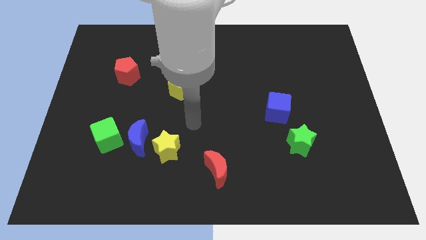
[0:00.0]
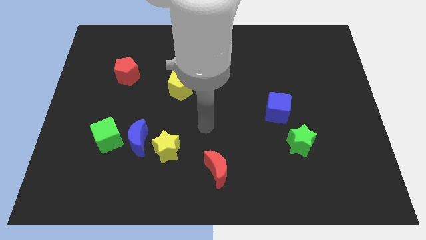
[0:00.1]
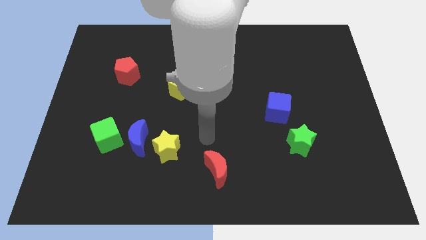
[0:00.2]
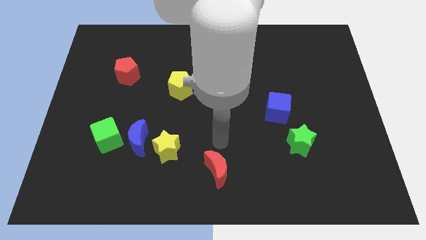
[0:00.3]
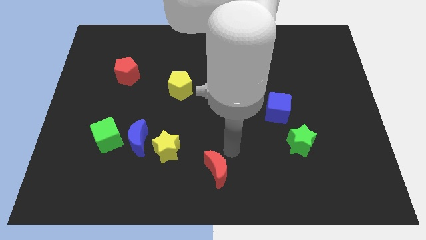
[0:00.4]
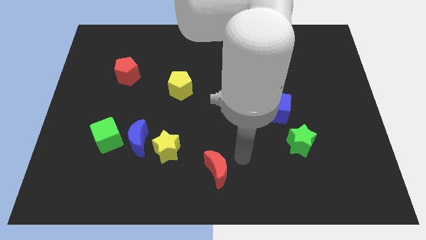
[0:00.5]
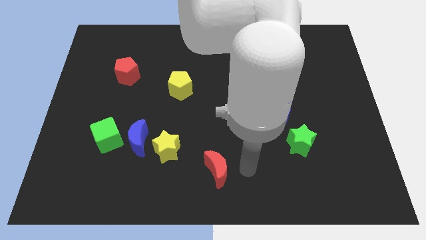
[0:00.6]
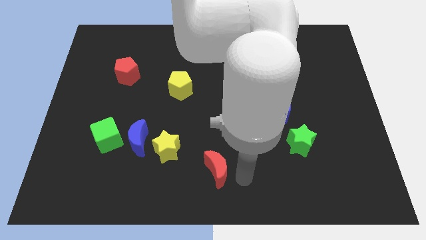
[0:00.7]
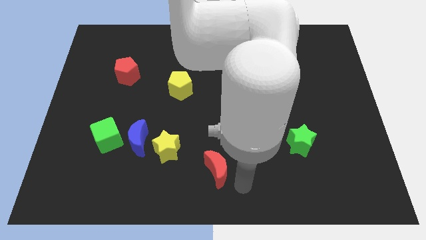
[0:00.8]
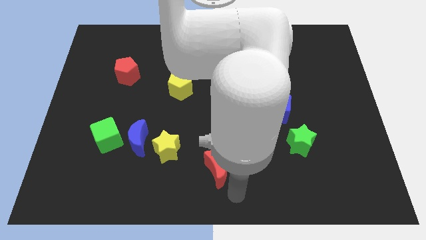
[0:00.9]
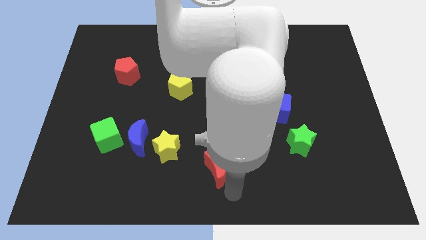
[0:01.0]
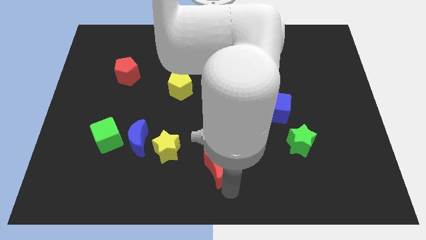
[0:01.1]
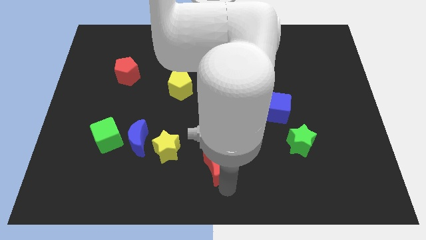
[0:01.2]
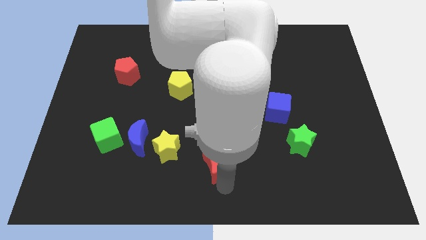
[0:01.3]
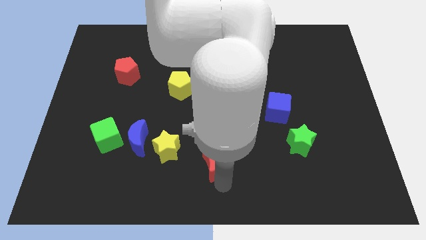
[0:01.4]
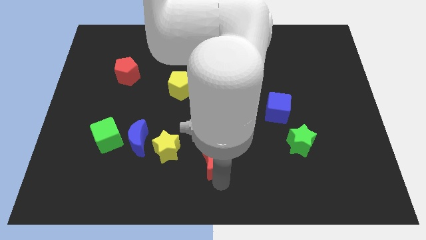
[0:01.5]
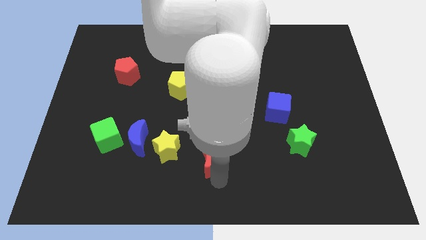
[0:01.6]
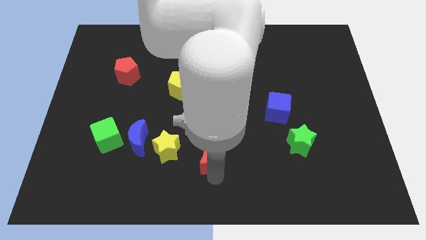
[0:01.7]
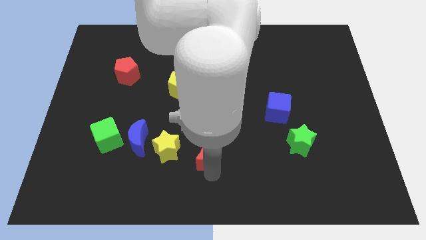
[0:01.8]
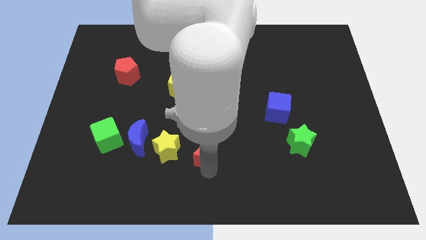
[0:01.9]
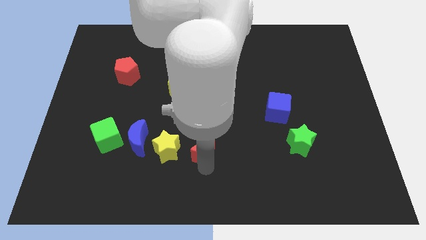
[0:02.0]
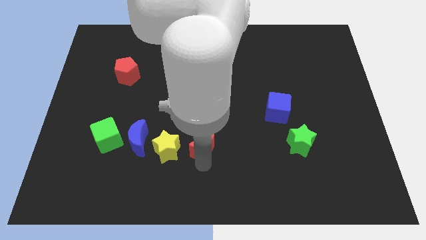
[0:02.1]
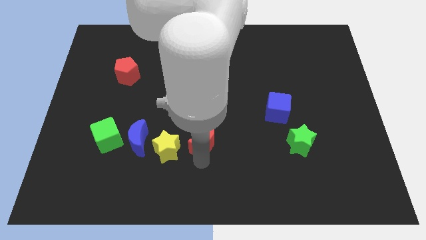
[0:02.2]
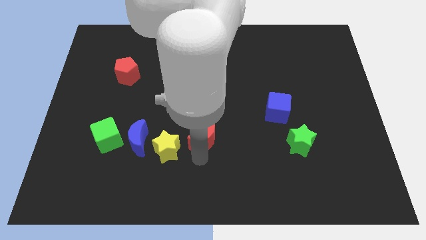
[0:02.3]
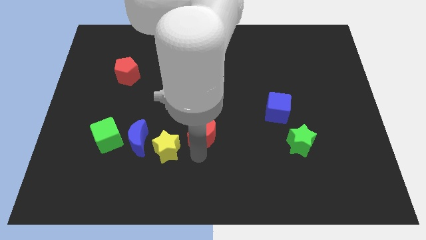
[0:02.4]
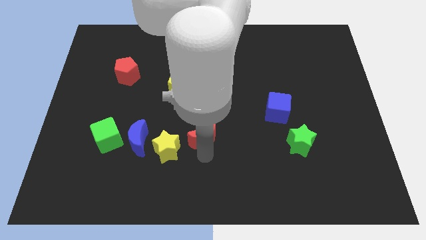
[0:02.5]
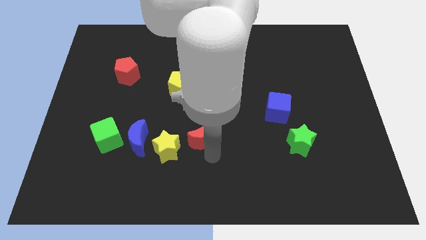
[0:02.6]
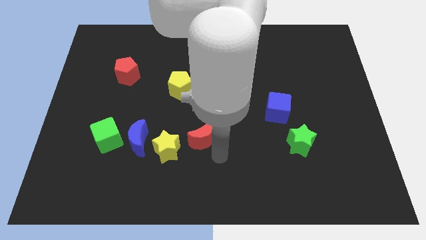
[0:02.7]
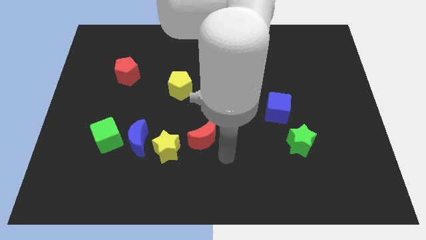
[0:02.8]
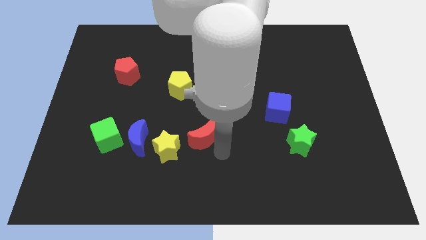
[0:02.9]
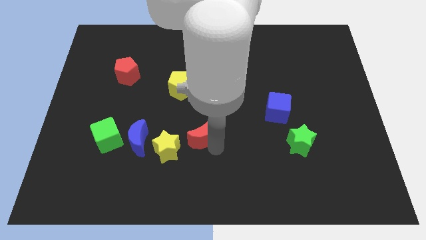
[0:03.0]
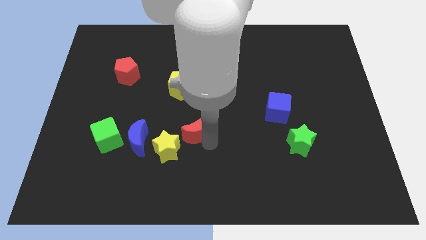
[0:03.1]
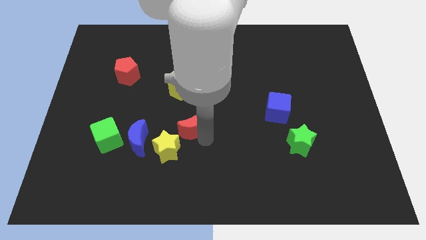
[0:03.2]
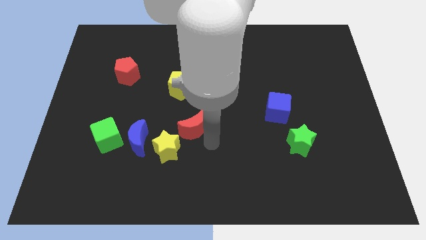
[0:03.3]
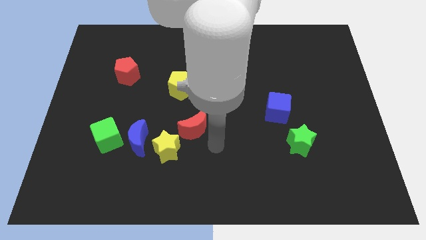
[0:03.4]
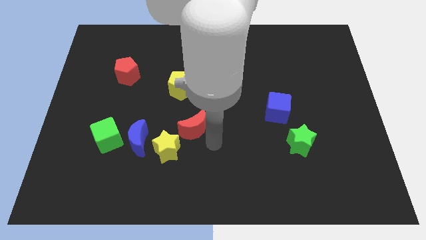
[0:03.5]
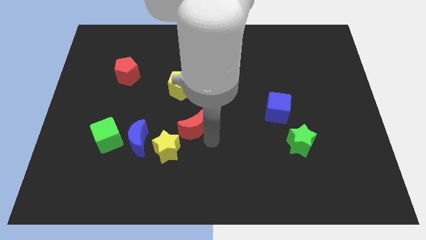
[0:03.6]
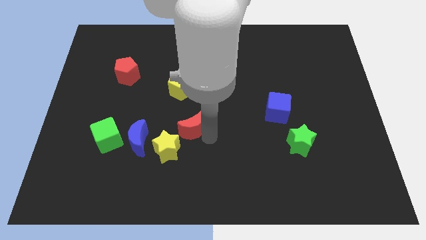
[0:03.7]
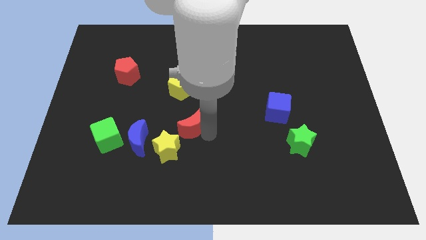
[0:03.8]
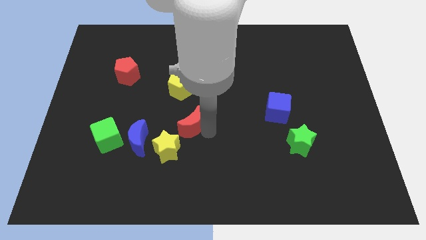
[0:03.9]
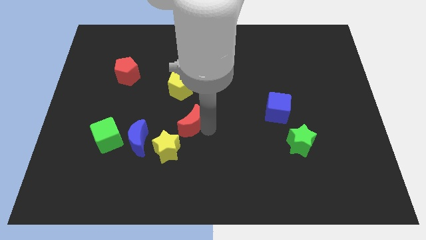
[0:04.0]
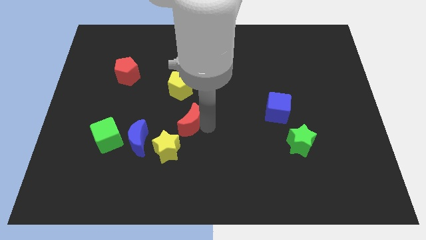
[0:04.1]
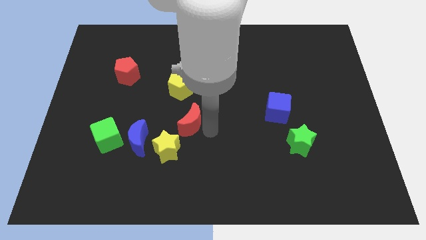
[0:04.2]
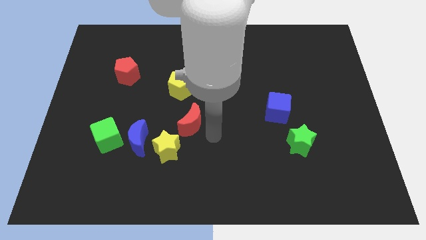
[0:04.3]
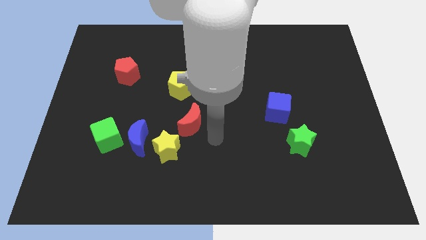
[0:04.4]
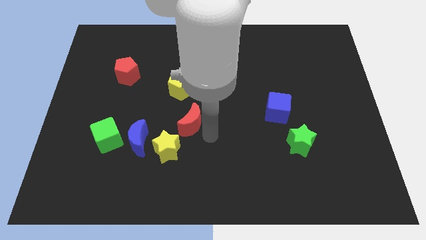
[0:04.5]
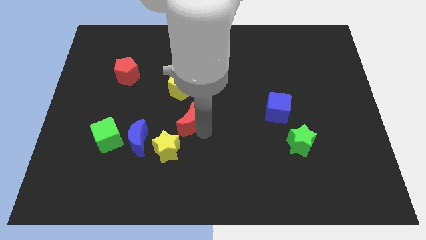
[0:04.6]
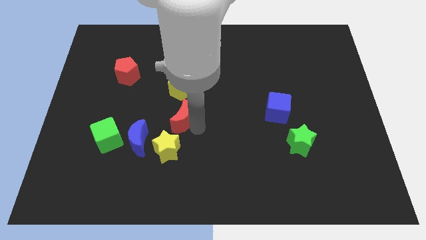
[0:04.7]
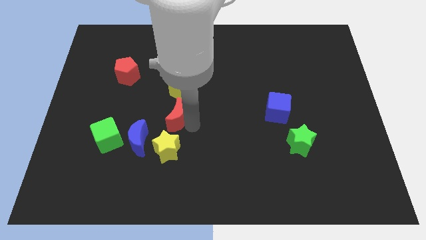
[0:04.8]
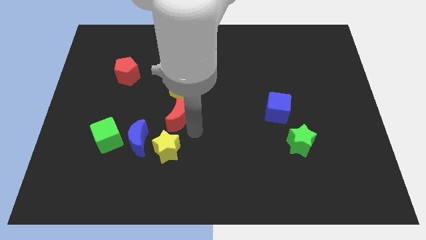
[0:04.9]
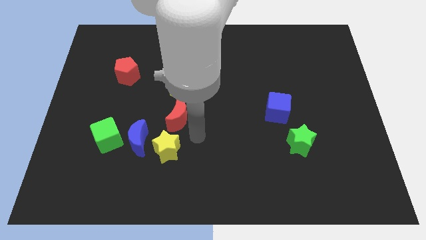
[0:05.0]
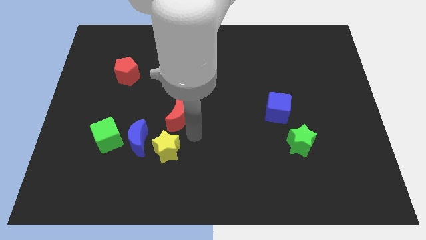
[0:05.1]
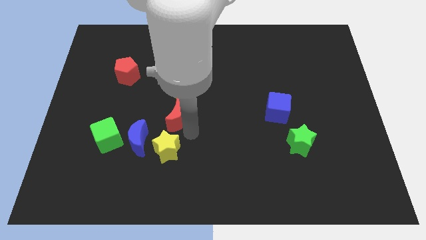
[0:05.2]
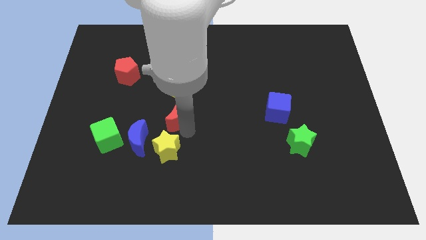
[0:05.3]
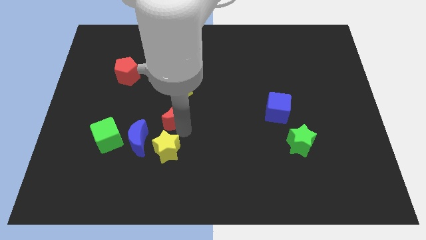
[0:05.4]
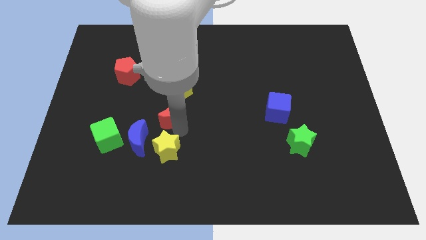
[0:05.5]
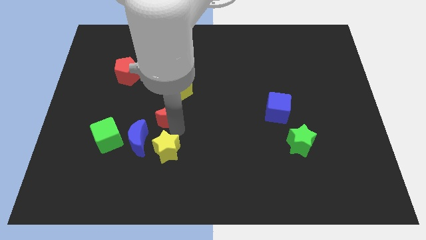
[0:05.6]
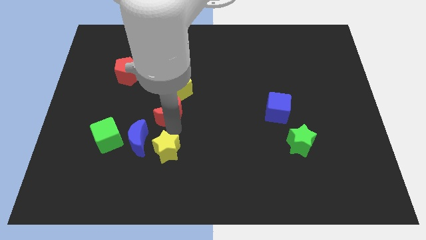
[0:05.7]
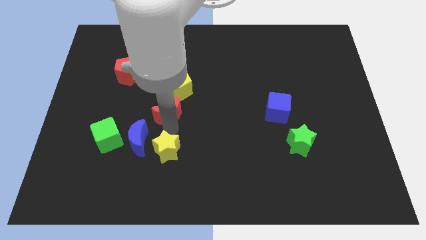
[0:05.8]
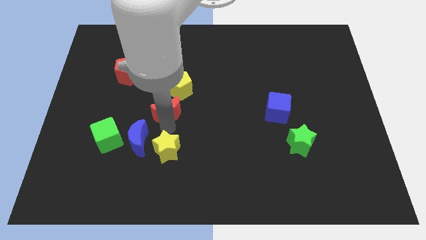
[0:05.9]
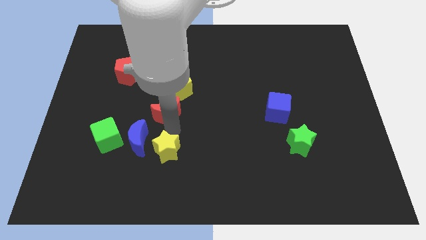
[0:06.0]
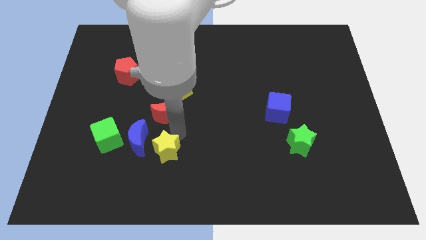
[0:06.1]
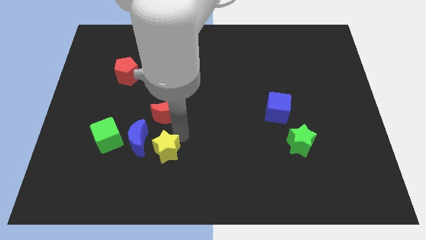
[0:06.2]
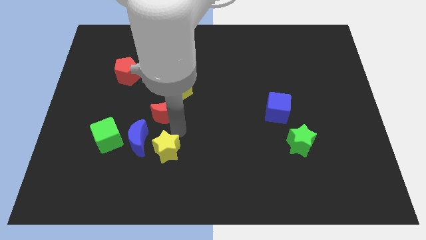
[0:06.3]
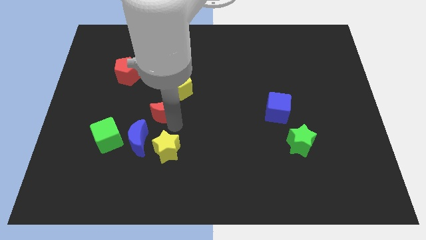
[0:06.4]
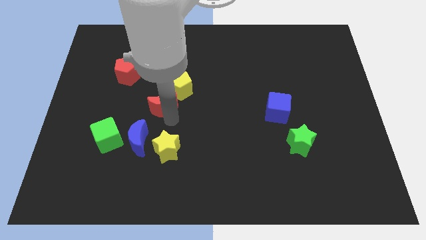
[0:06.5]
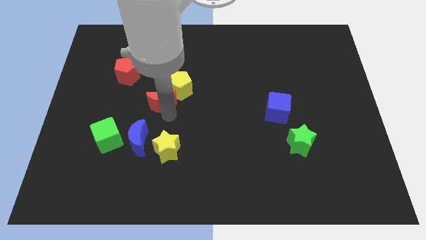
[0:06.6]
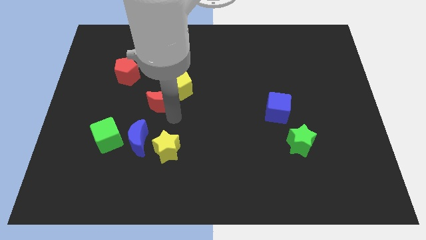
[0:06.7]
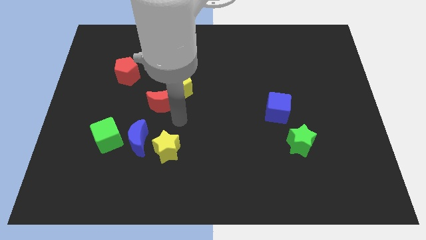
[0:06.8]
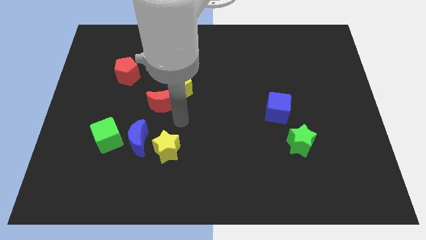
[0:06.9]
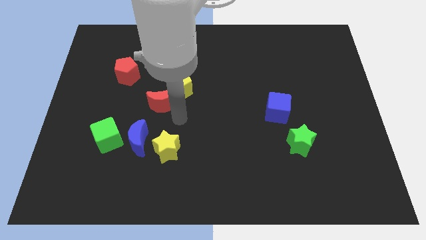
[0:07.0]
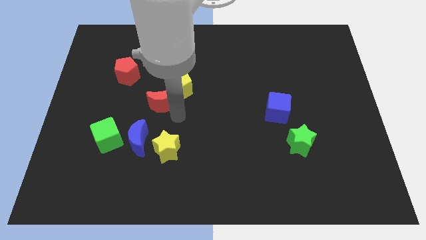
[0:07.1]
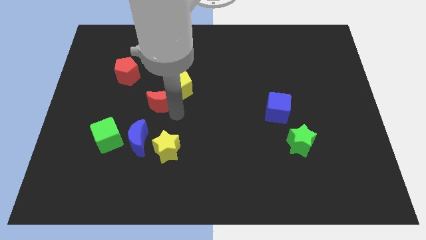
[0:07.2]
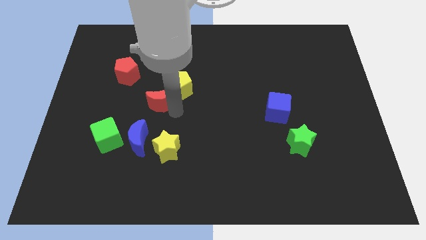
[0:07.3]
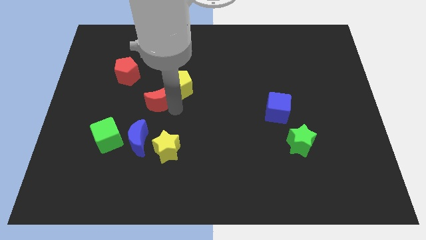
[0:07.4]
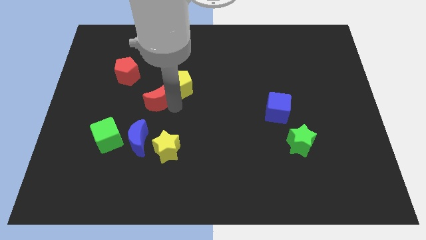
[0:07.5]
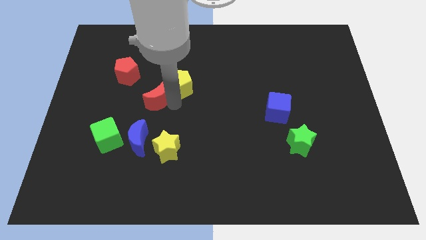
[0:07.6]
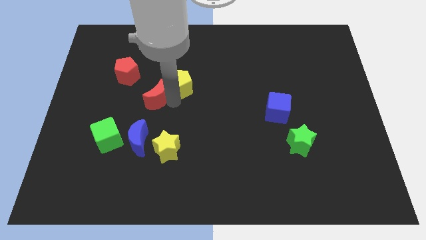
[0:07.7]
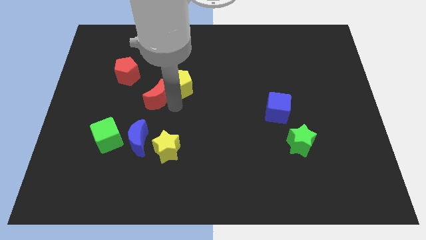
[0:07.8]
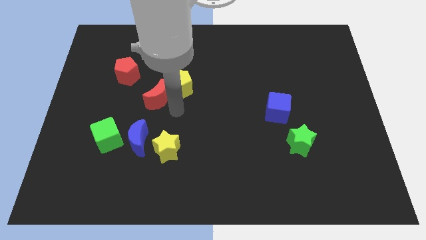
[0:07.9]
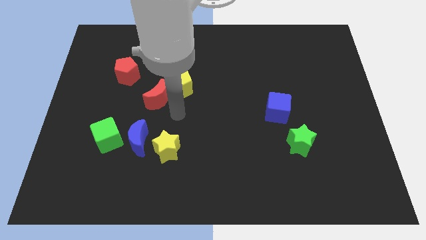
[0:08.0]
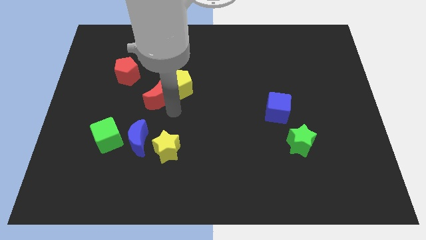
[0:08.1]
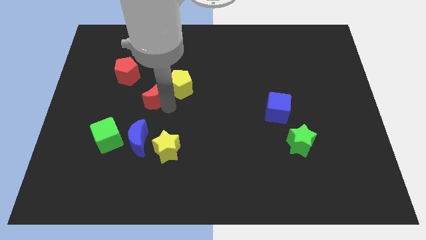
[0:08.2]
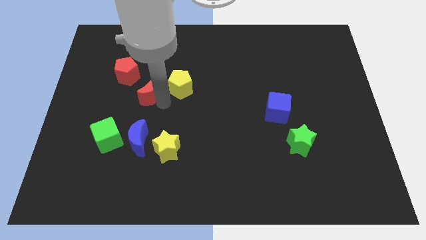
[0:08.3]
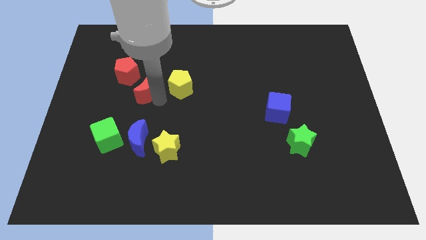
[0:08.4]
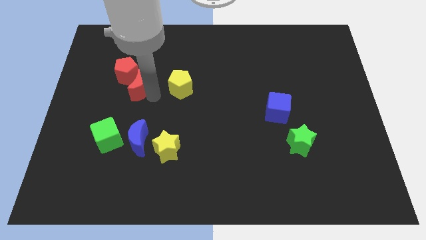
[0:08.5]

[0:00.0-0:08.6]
slide the red moon close to the red pentagon
